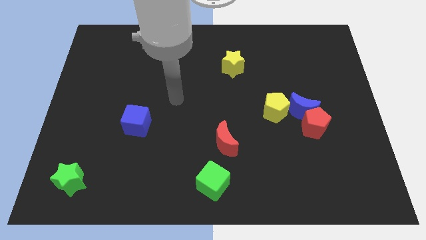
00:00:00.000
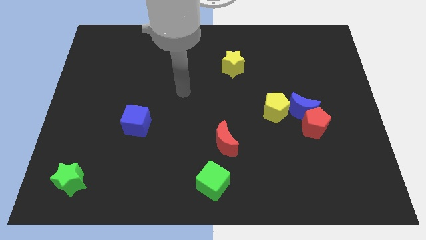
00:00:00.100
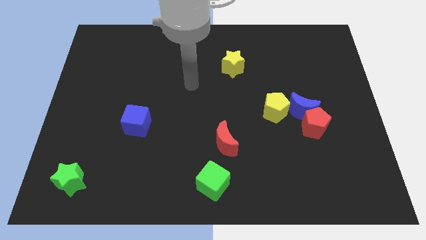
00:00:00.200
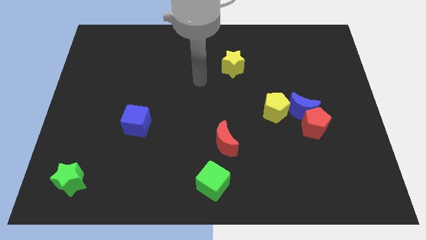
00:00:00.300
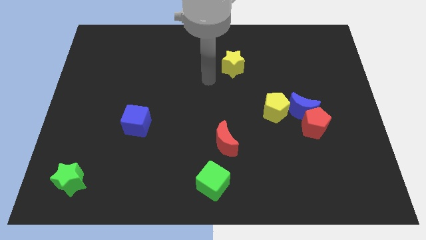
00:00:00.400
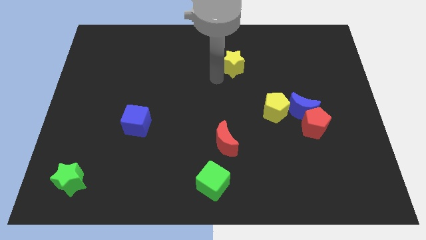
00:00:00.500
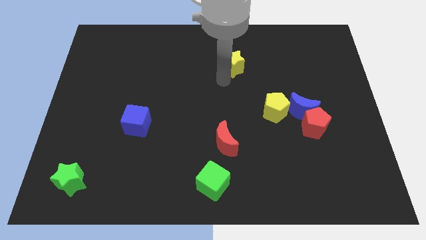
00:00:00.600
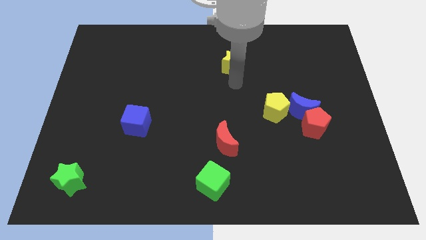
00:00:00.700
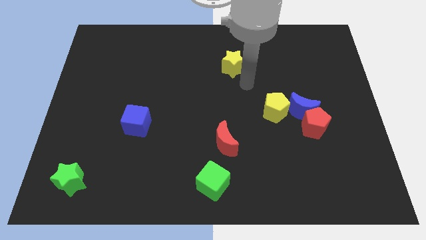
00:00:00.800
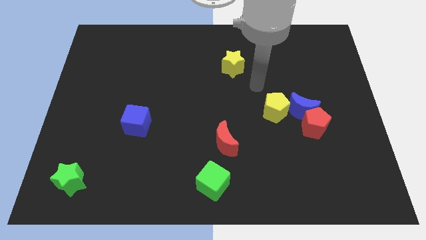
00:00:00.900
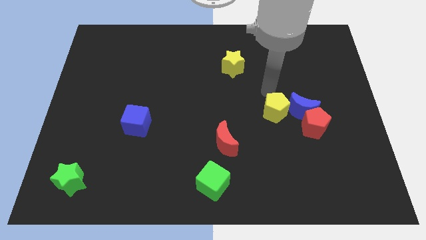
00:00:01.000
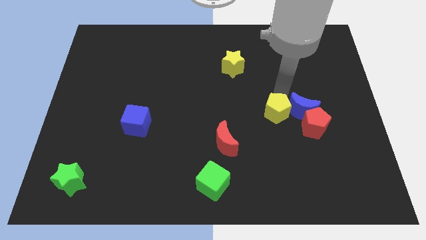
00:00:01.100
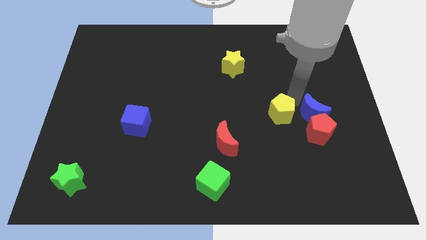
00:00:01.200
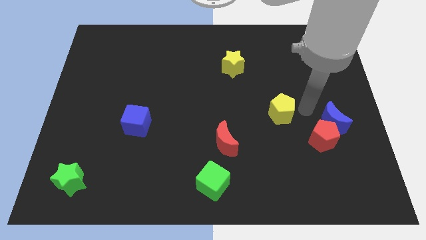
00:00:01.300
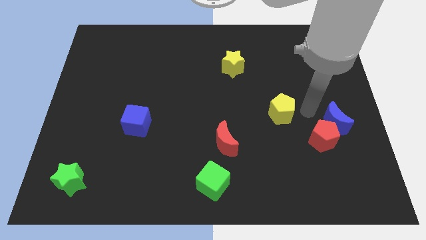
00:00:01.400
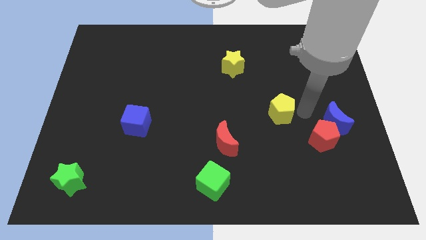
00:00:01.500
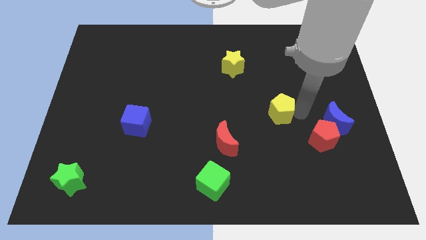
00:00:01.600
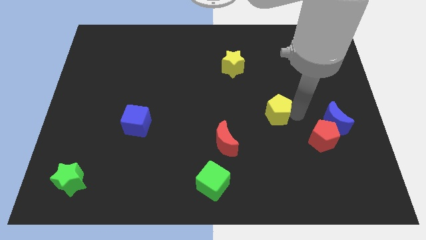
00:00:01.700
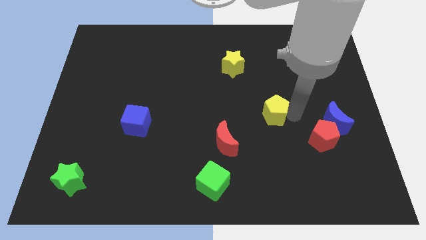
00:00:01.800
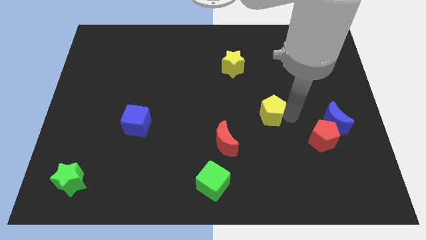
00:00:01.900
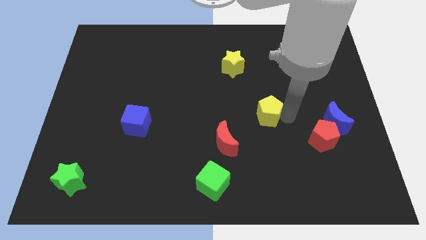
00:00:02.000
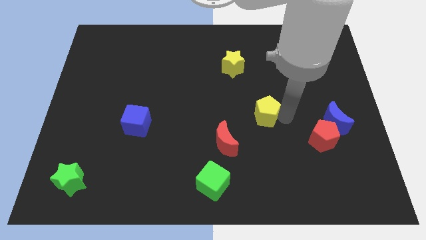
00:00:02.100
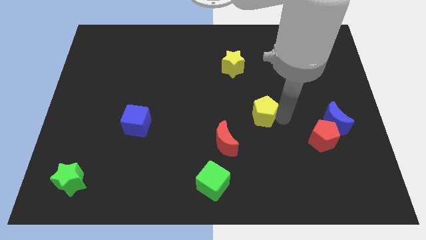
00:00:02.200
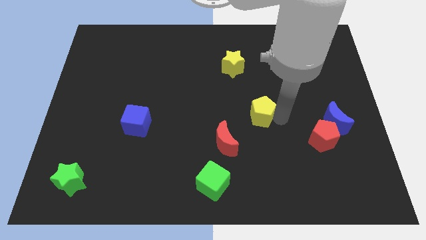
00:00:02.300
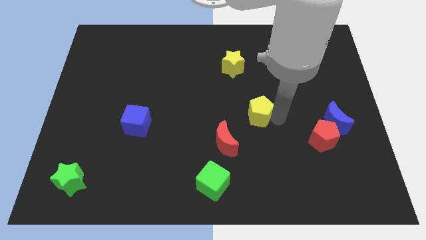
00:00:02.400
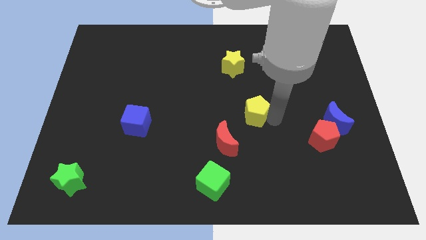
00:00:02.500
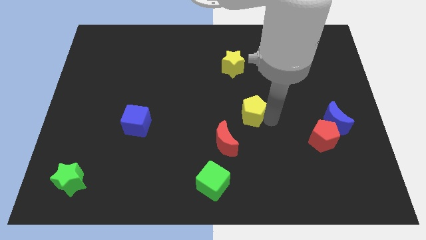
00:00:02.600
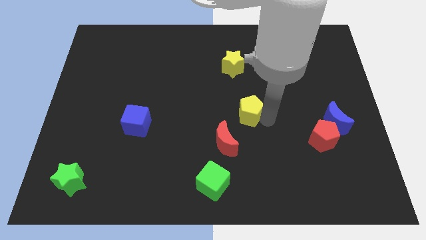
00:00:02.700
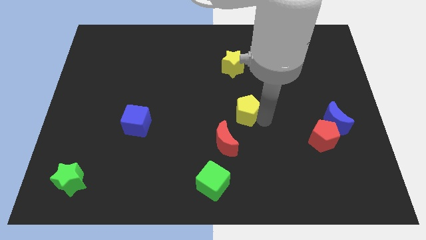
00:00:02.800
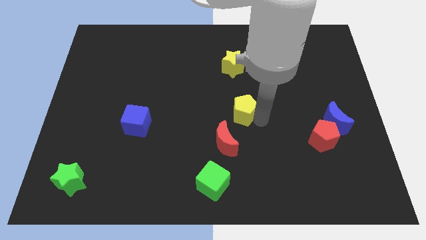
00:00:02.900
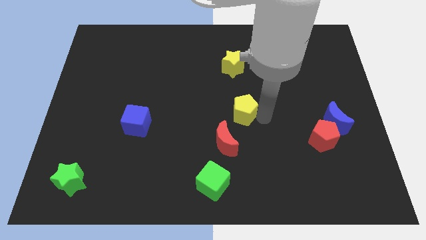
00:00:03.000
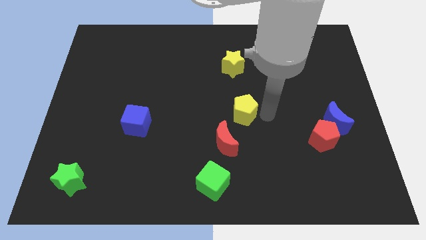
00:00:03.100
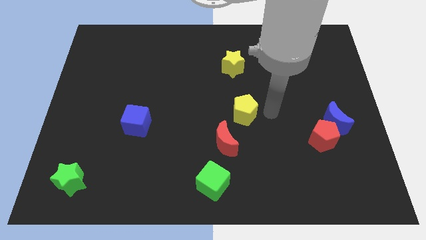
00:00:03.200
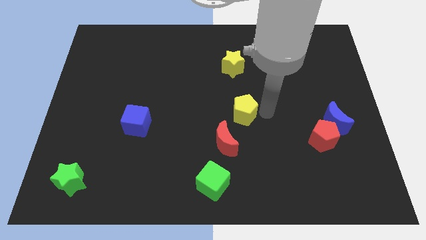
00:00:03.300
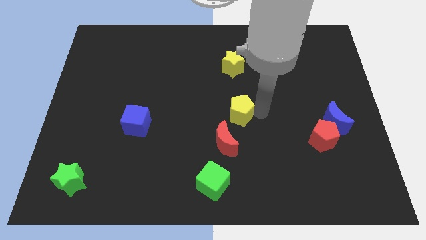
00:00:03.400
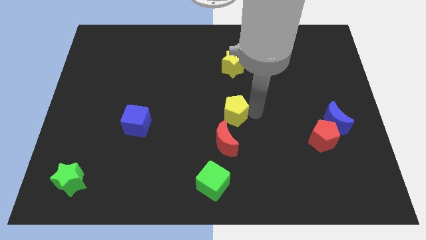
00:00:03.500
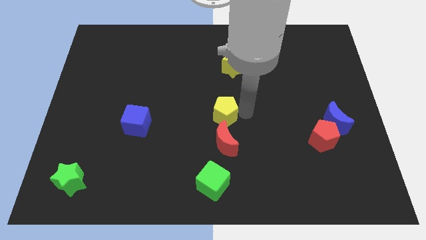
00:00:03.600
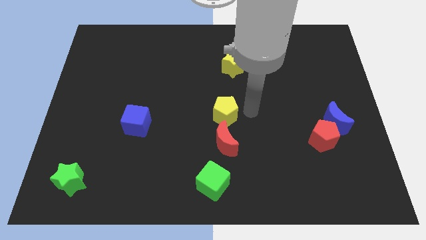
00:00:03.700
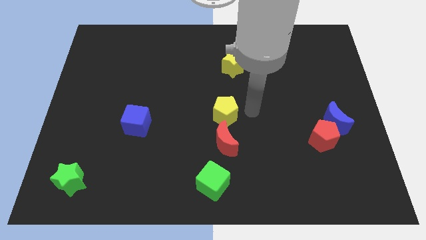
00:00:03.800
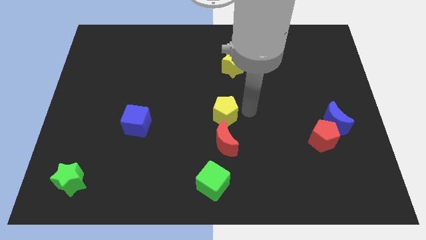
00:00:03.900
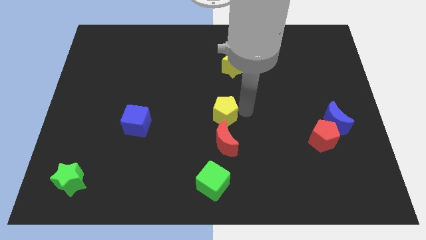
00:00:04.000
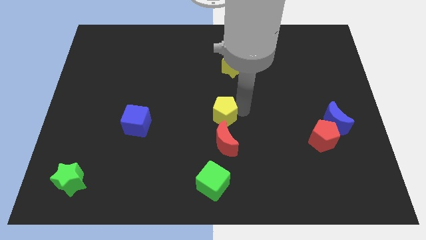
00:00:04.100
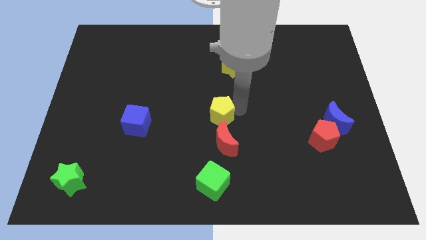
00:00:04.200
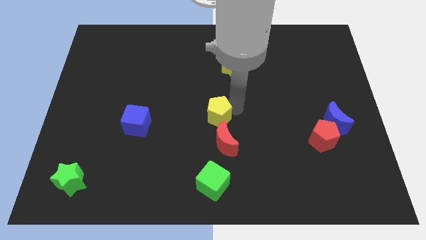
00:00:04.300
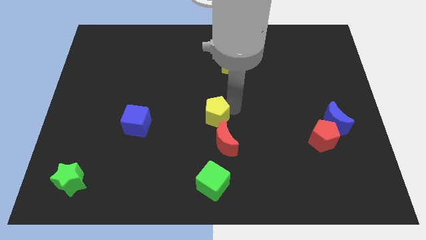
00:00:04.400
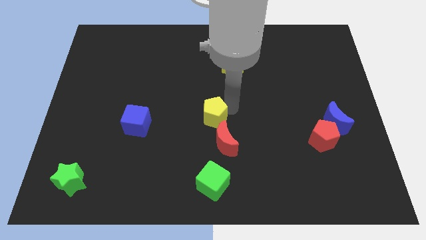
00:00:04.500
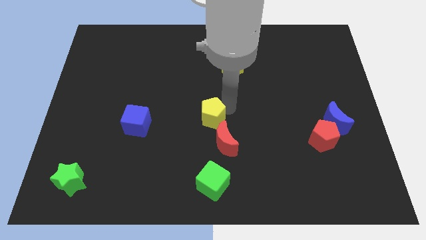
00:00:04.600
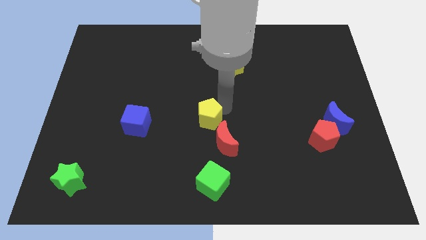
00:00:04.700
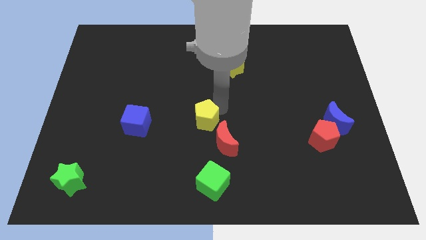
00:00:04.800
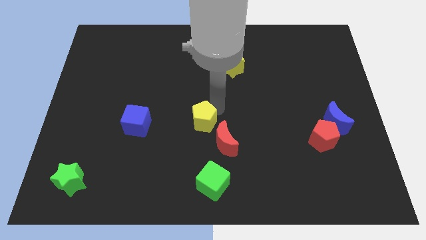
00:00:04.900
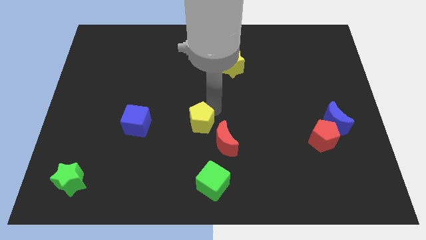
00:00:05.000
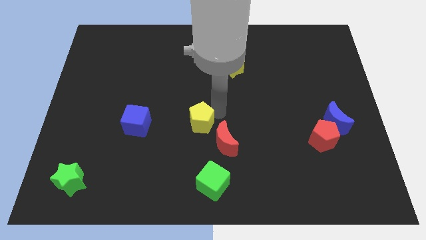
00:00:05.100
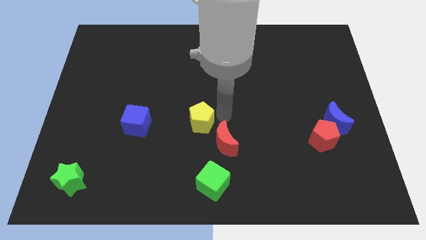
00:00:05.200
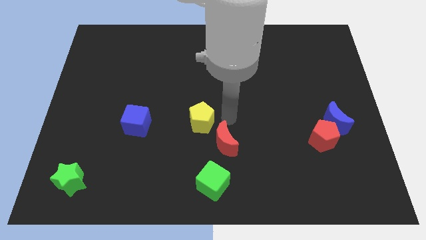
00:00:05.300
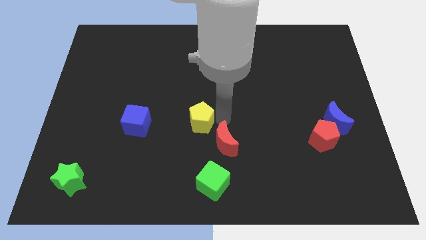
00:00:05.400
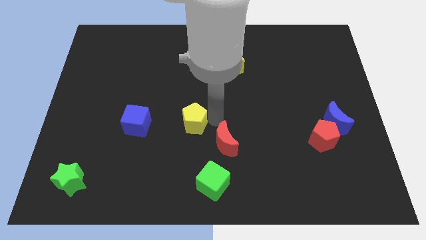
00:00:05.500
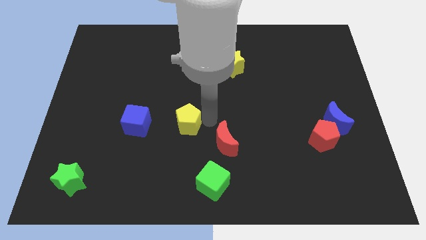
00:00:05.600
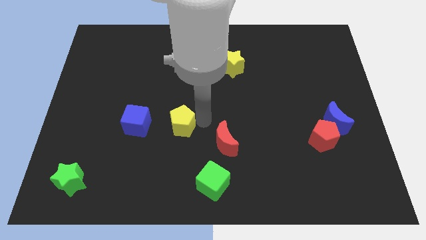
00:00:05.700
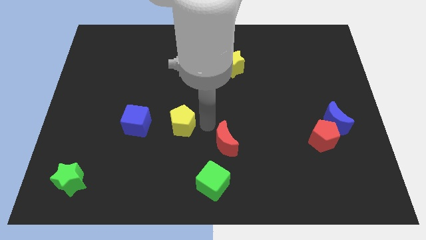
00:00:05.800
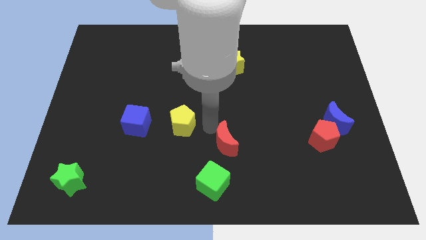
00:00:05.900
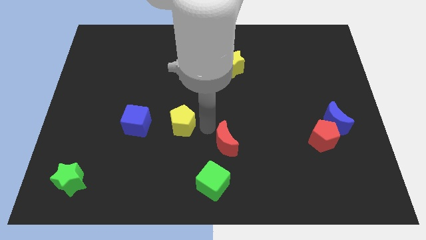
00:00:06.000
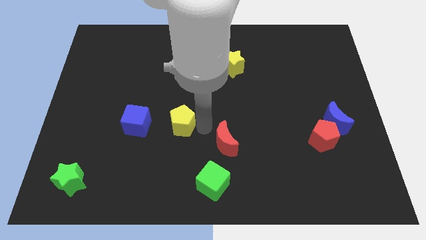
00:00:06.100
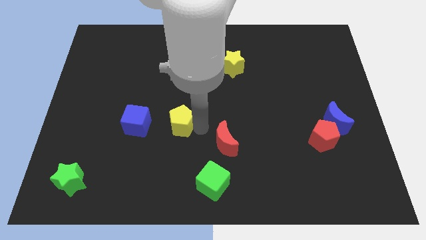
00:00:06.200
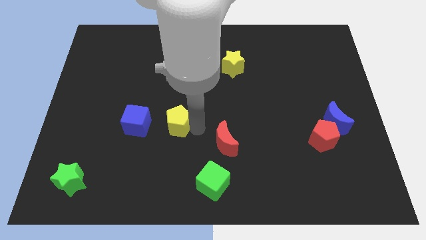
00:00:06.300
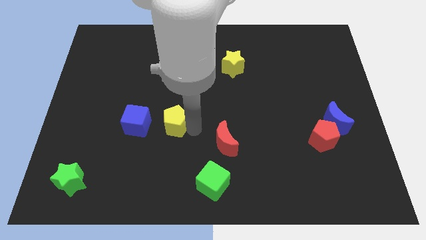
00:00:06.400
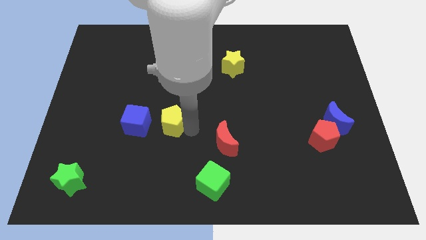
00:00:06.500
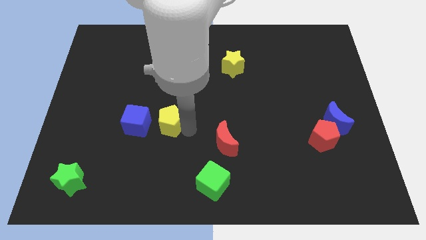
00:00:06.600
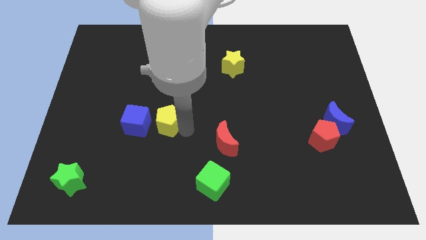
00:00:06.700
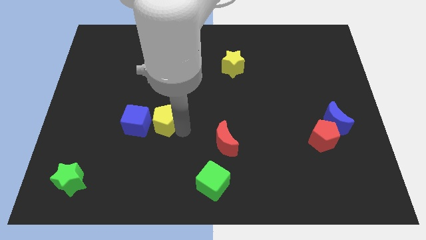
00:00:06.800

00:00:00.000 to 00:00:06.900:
push the yellow pentagon next to the blue cube
